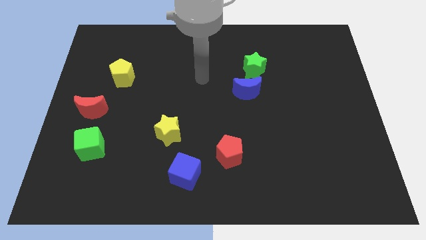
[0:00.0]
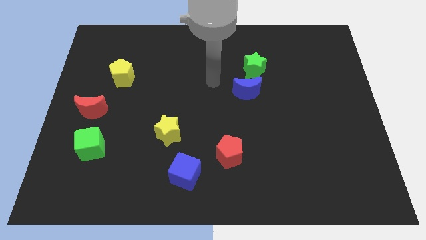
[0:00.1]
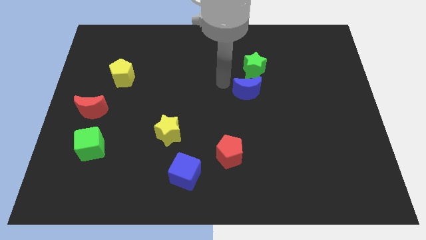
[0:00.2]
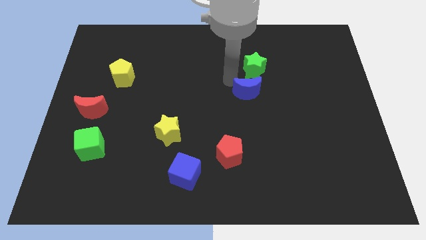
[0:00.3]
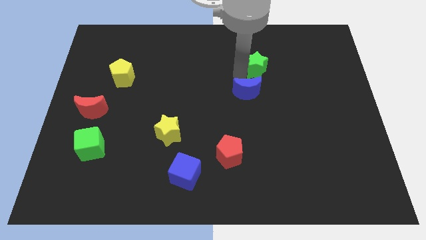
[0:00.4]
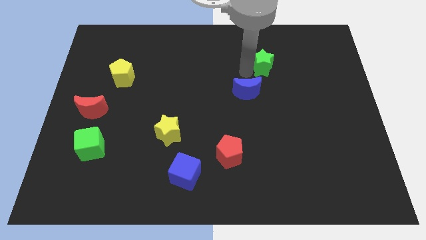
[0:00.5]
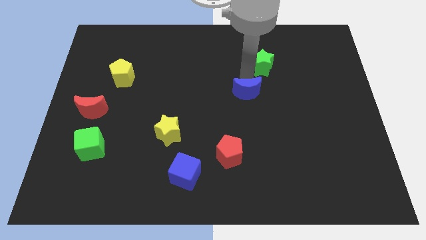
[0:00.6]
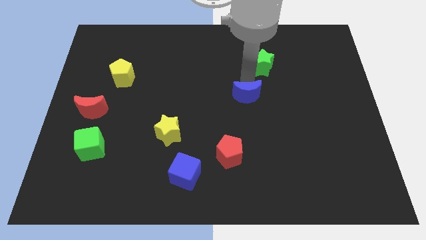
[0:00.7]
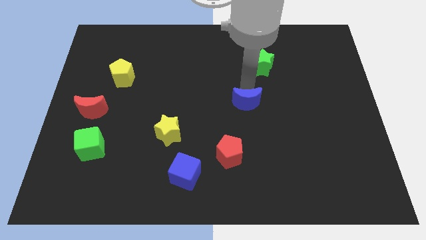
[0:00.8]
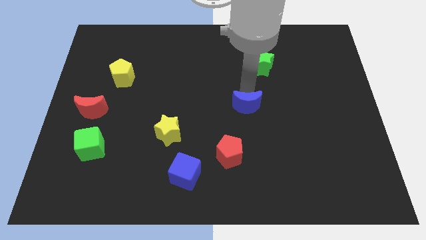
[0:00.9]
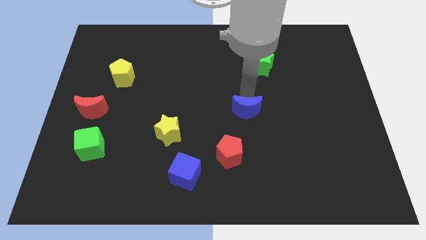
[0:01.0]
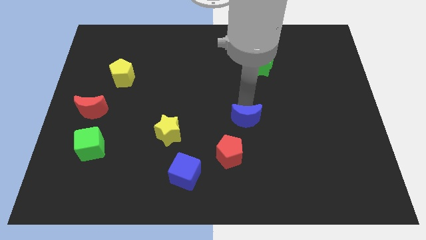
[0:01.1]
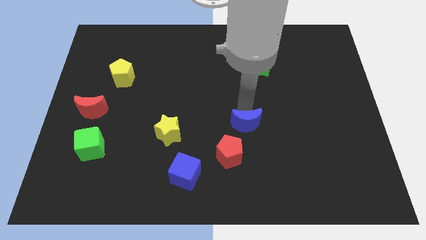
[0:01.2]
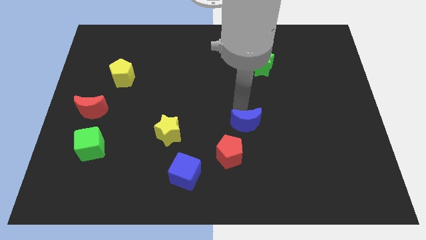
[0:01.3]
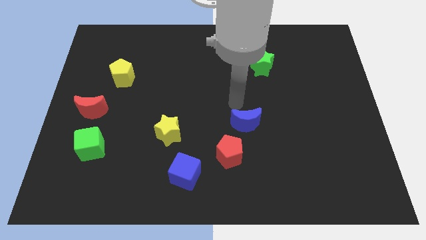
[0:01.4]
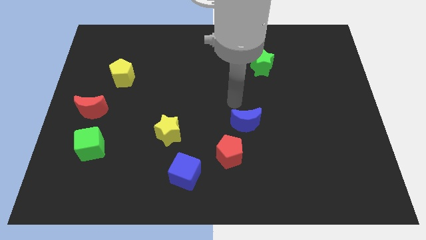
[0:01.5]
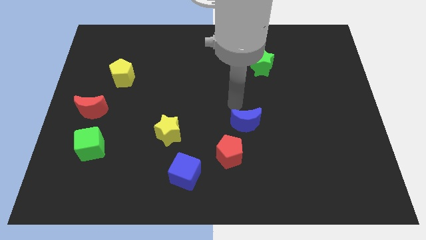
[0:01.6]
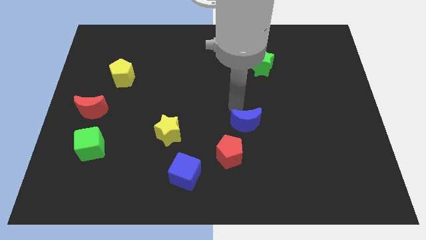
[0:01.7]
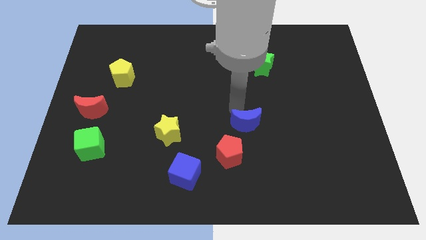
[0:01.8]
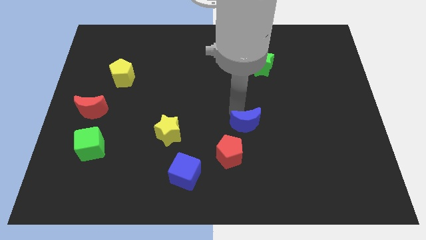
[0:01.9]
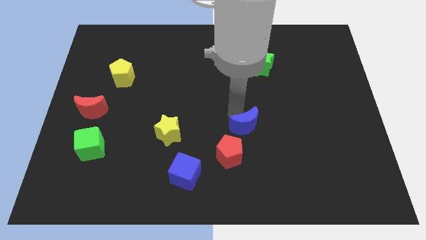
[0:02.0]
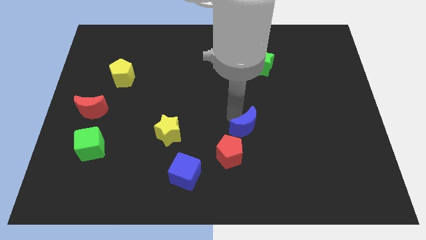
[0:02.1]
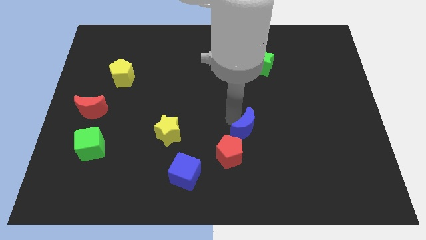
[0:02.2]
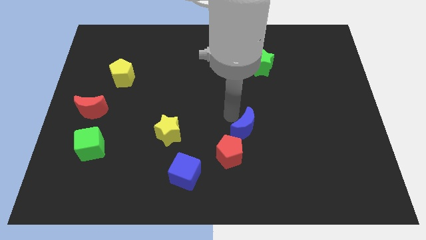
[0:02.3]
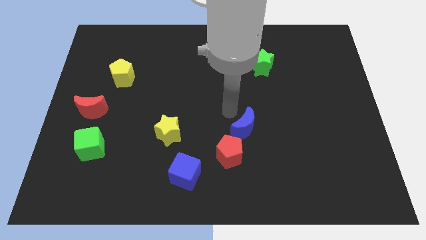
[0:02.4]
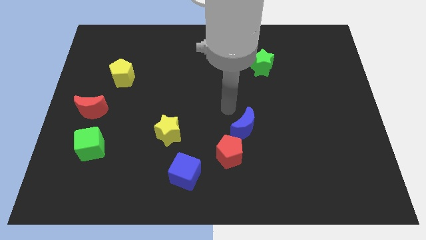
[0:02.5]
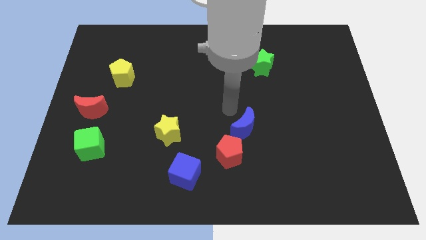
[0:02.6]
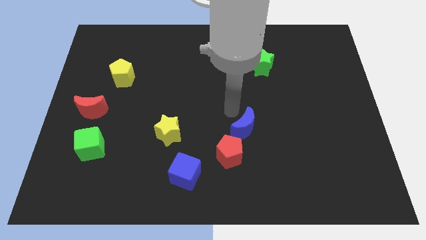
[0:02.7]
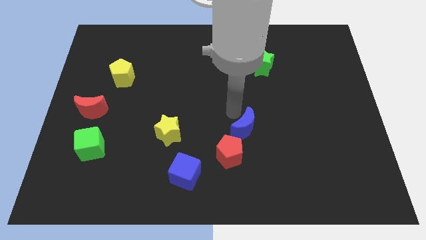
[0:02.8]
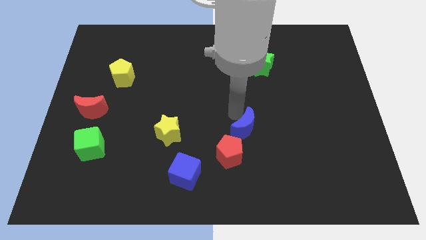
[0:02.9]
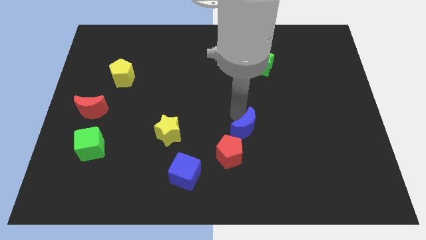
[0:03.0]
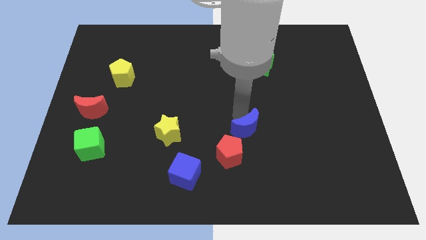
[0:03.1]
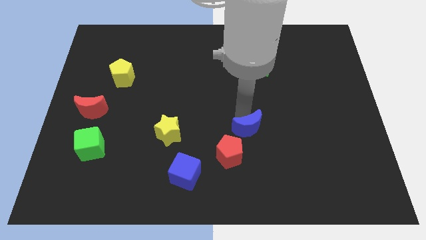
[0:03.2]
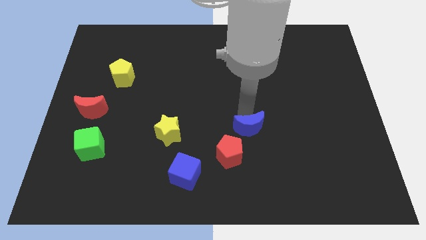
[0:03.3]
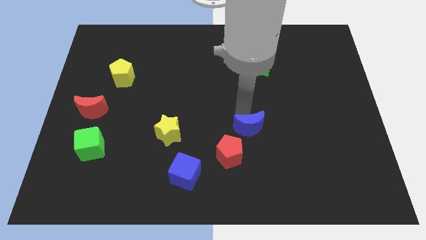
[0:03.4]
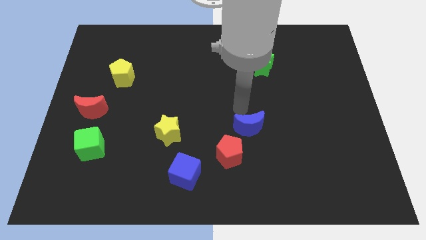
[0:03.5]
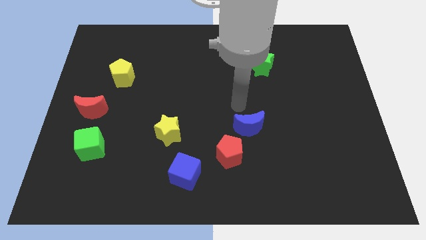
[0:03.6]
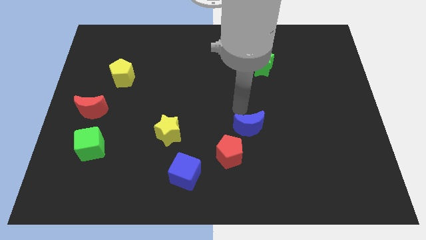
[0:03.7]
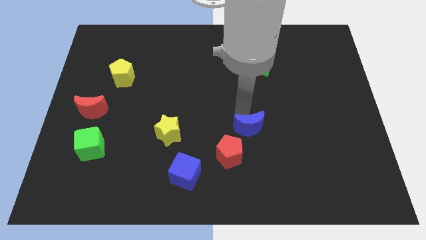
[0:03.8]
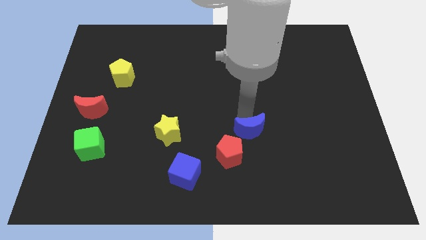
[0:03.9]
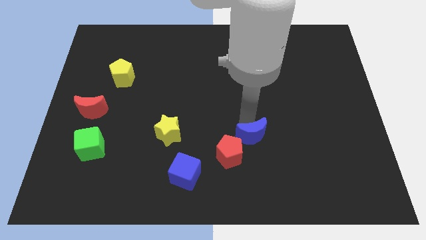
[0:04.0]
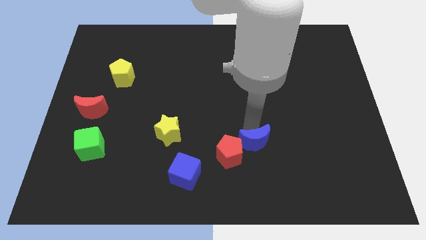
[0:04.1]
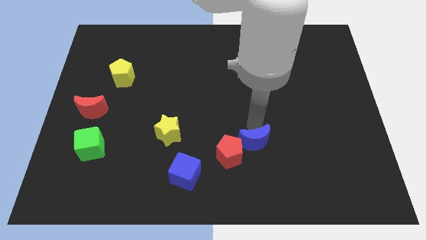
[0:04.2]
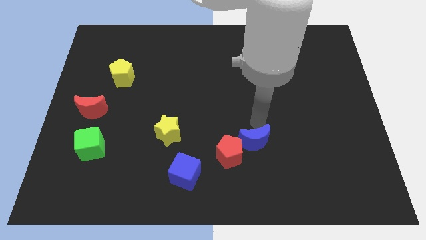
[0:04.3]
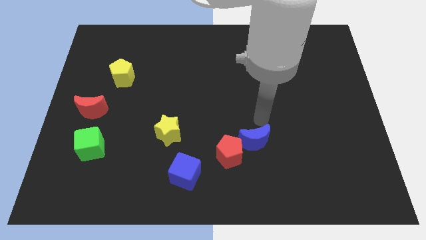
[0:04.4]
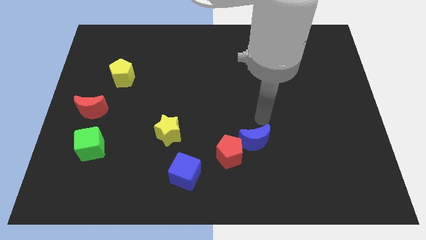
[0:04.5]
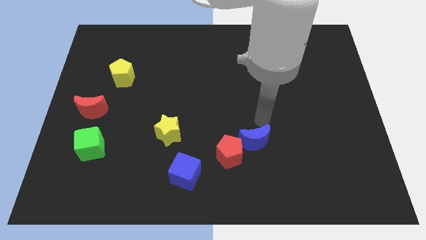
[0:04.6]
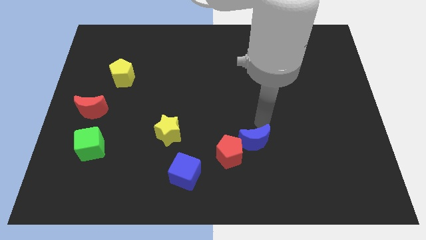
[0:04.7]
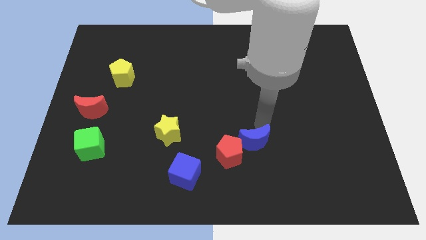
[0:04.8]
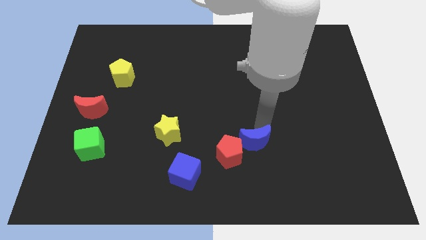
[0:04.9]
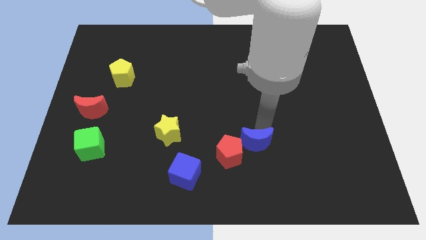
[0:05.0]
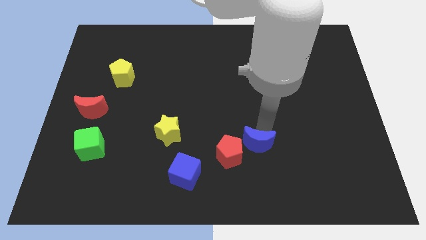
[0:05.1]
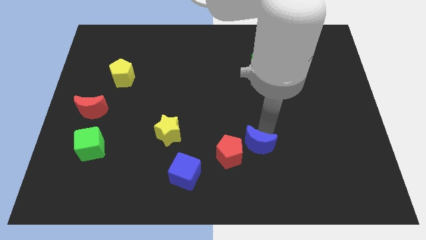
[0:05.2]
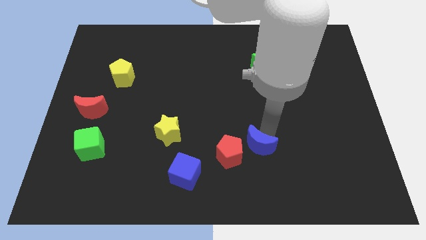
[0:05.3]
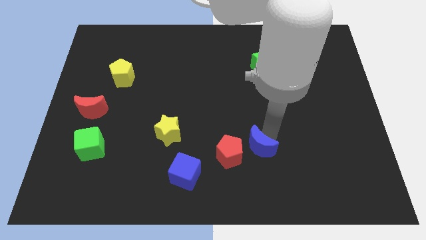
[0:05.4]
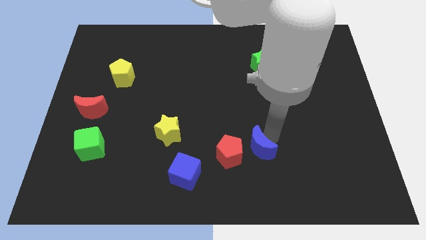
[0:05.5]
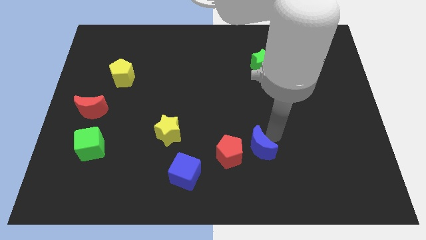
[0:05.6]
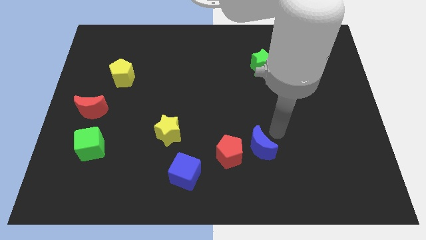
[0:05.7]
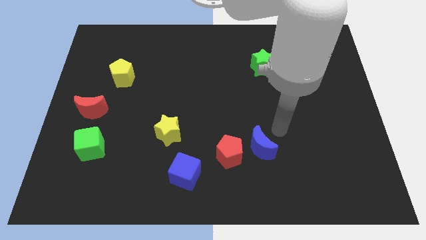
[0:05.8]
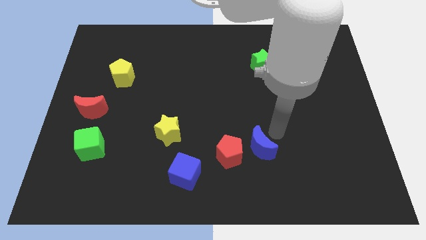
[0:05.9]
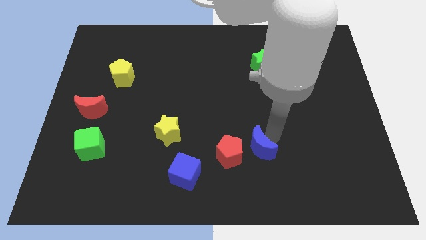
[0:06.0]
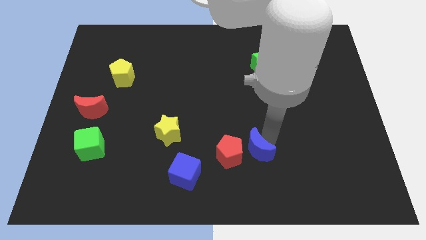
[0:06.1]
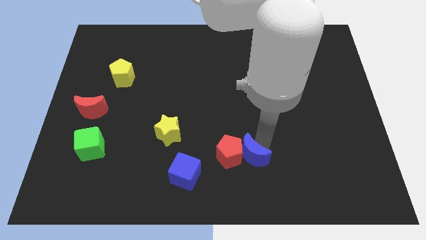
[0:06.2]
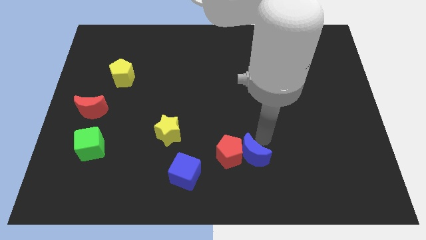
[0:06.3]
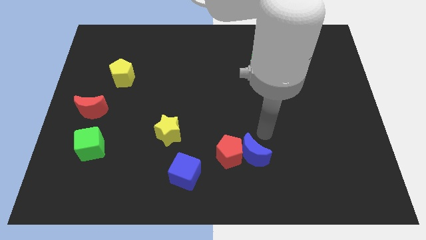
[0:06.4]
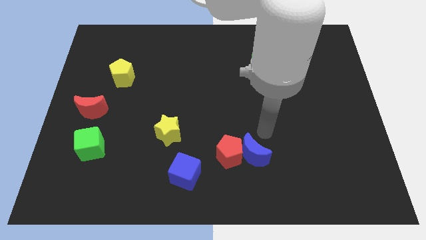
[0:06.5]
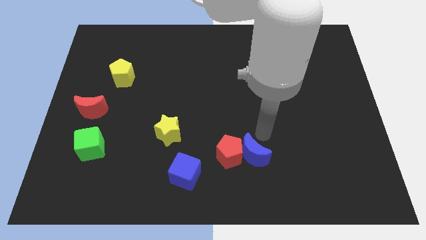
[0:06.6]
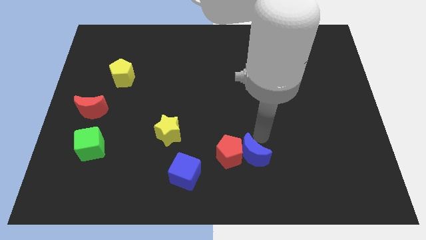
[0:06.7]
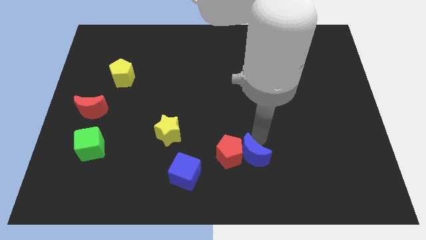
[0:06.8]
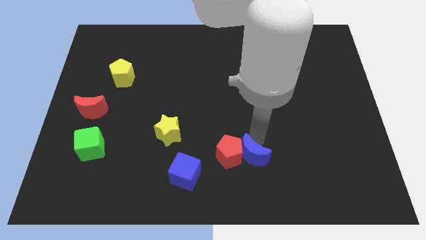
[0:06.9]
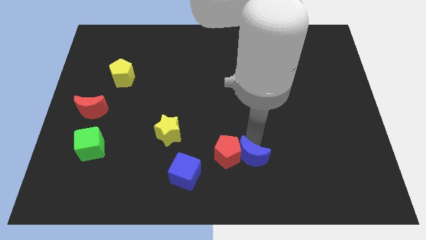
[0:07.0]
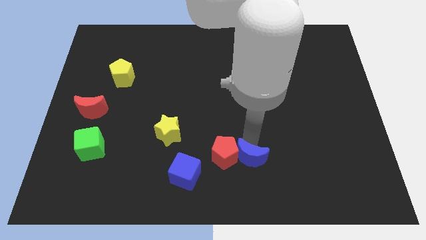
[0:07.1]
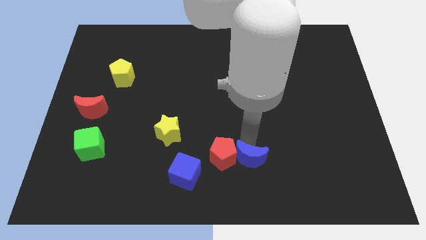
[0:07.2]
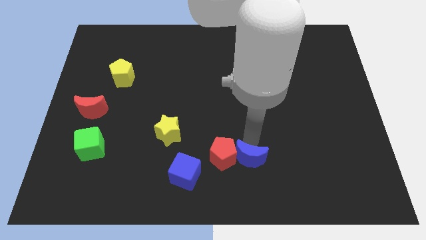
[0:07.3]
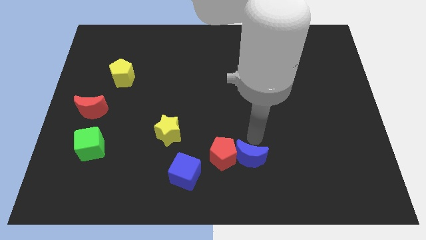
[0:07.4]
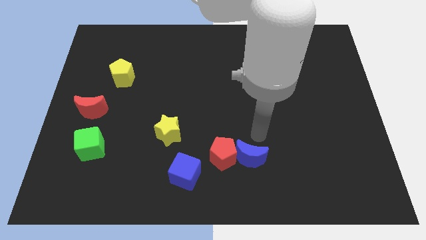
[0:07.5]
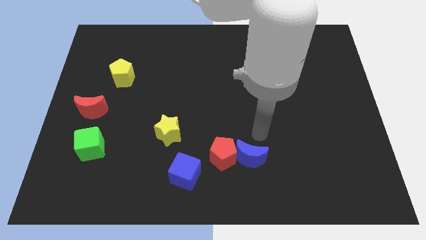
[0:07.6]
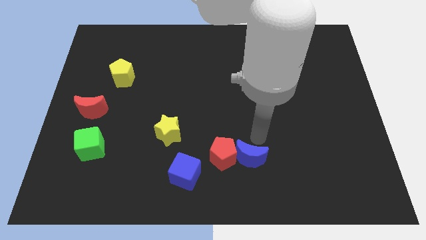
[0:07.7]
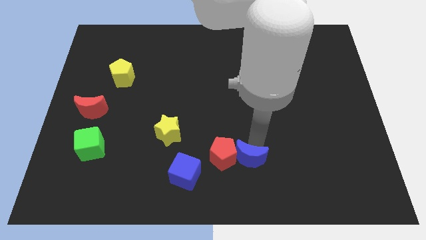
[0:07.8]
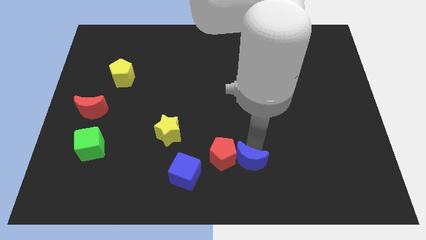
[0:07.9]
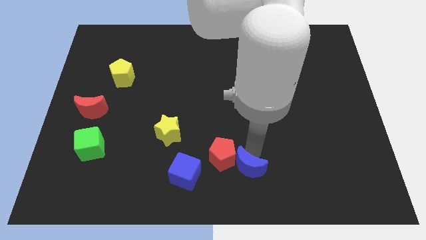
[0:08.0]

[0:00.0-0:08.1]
push the blue moon to the bottom side
